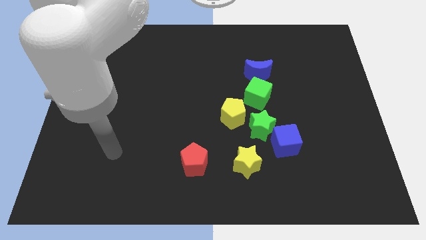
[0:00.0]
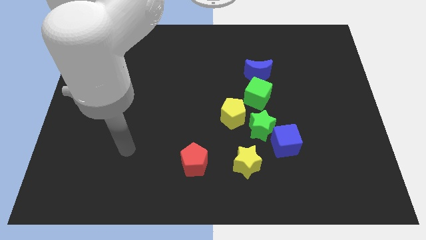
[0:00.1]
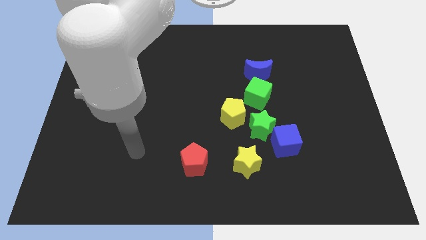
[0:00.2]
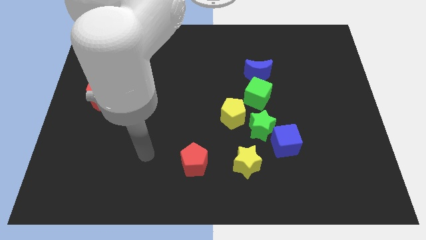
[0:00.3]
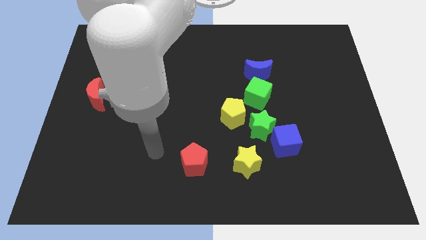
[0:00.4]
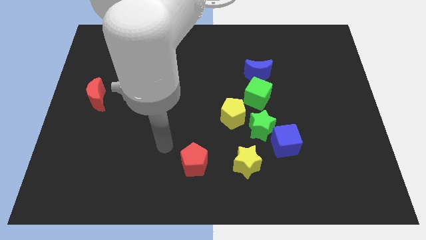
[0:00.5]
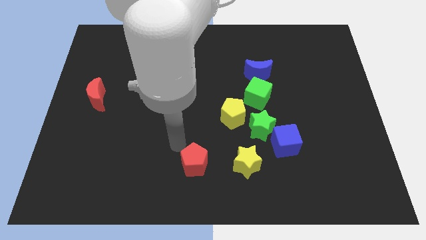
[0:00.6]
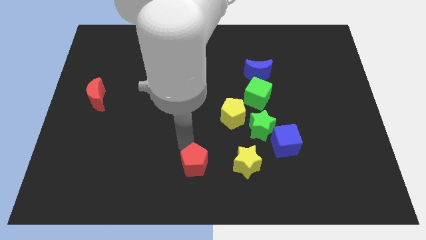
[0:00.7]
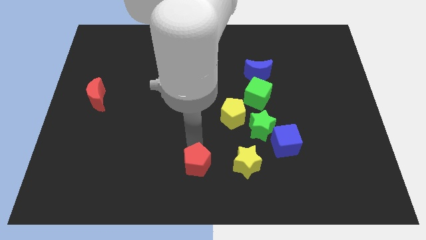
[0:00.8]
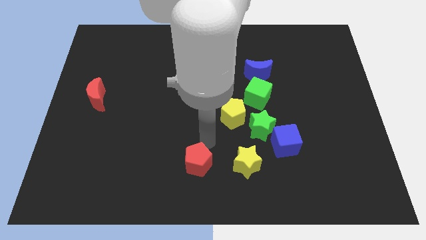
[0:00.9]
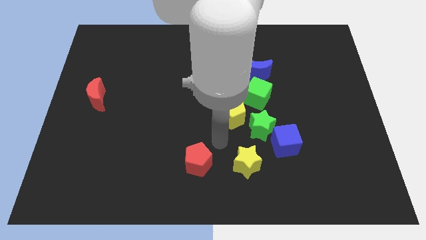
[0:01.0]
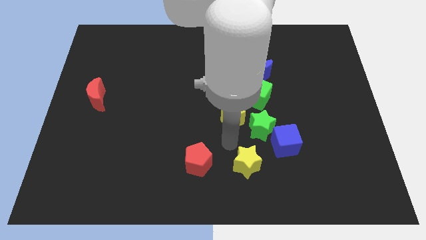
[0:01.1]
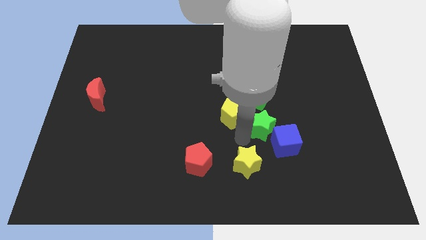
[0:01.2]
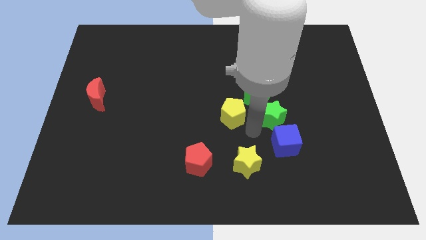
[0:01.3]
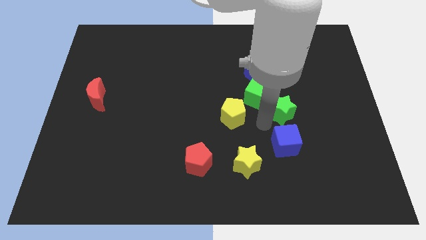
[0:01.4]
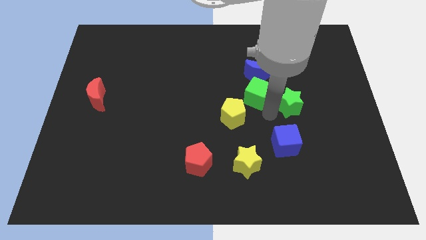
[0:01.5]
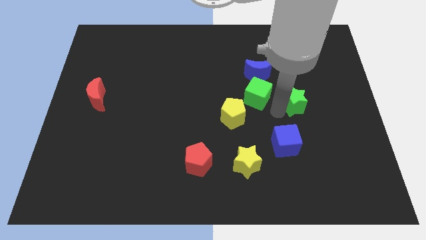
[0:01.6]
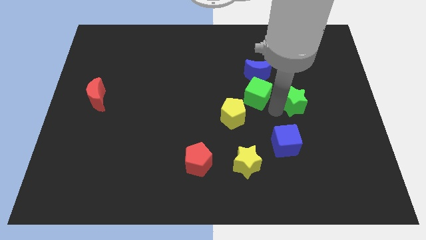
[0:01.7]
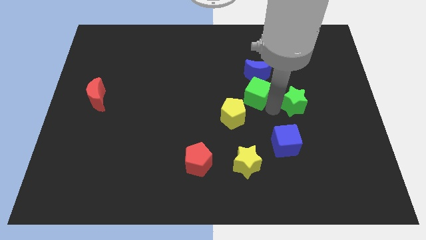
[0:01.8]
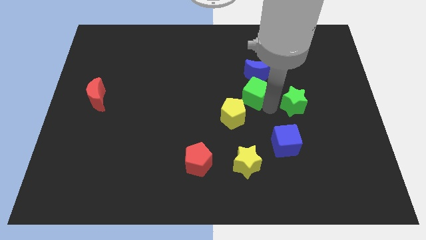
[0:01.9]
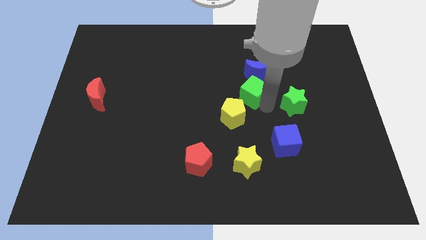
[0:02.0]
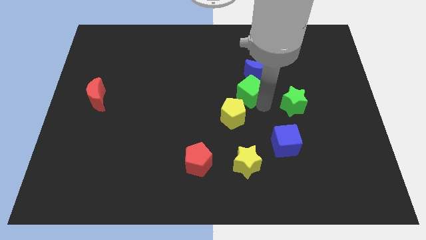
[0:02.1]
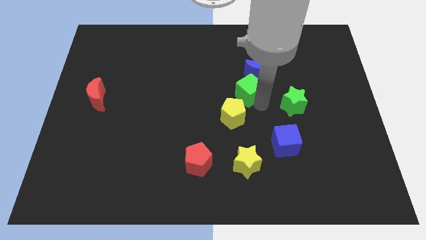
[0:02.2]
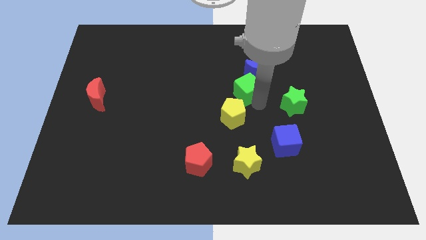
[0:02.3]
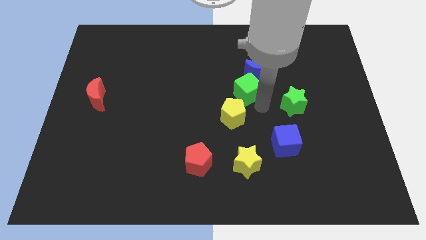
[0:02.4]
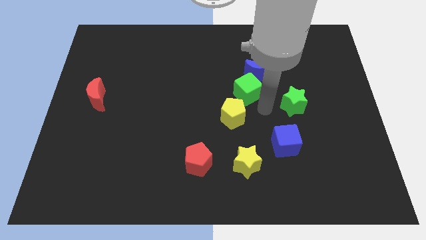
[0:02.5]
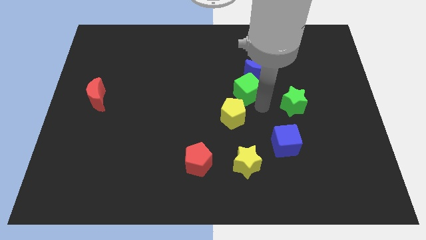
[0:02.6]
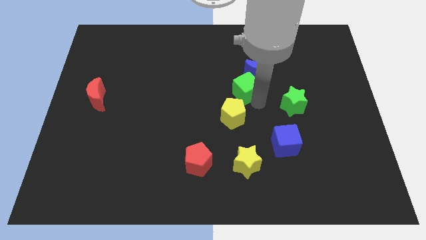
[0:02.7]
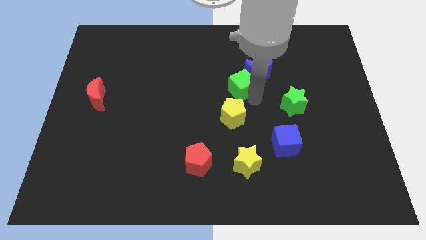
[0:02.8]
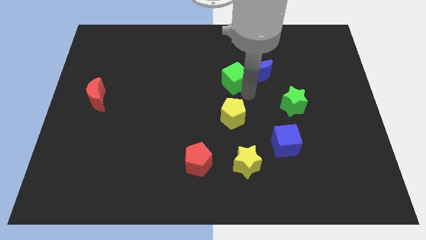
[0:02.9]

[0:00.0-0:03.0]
slightly push the green cube upwards and then to the left

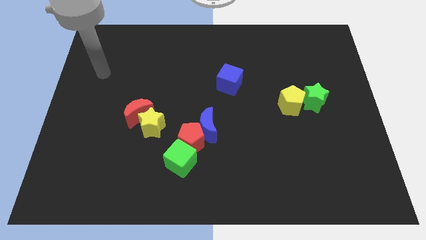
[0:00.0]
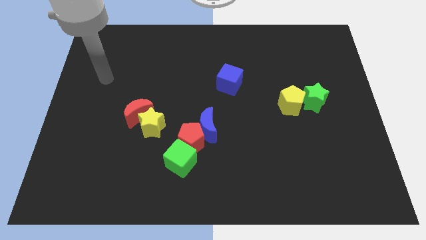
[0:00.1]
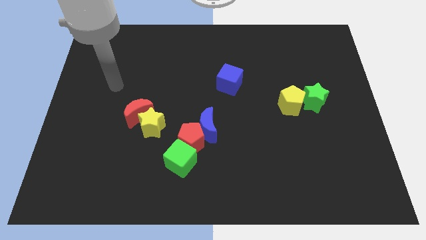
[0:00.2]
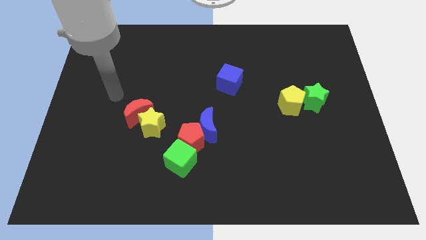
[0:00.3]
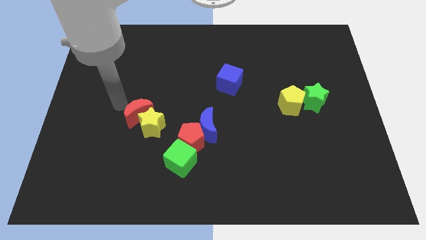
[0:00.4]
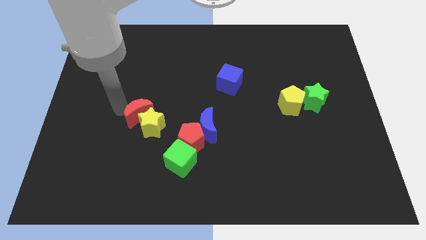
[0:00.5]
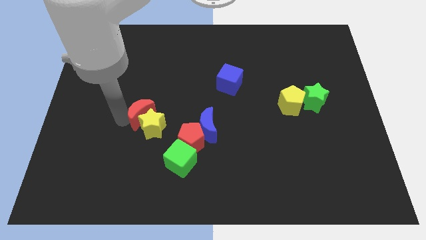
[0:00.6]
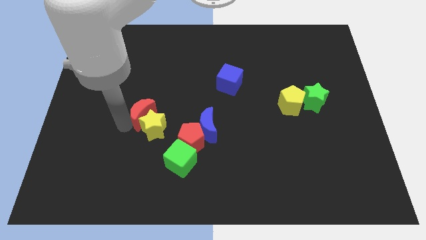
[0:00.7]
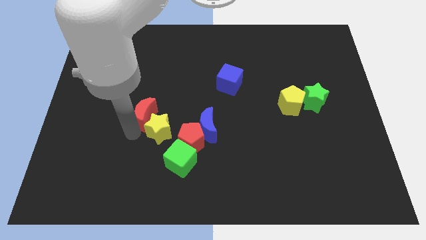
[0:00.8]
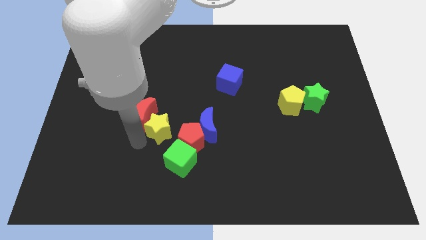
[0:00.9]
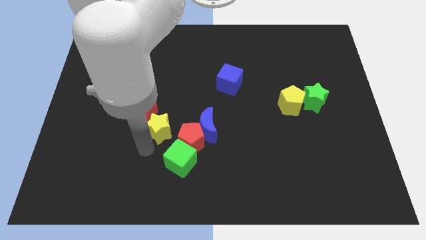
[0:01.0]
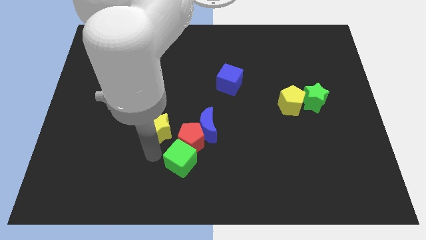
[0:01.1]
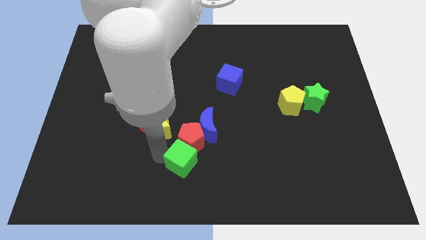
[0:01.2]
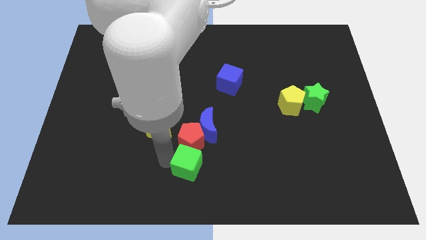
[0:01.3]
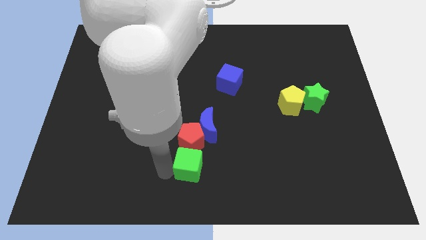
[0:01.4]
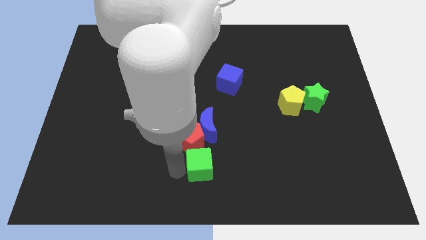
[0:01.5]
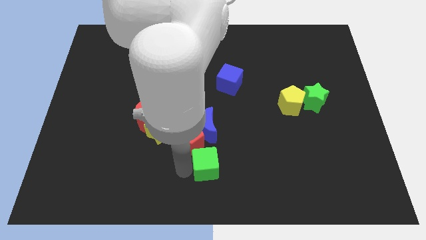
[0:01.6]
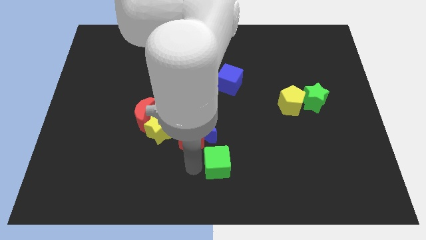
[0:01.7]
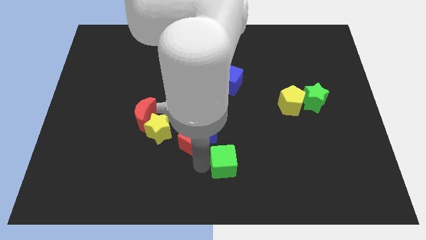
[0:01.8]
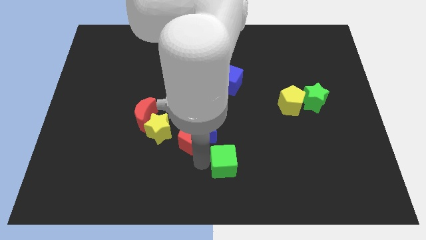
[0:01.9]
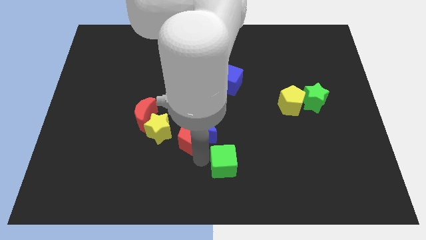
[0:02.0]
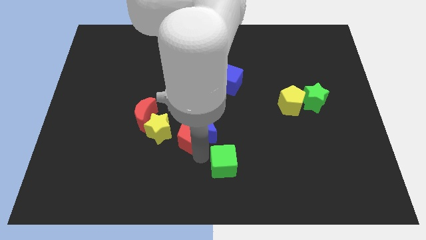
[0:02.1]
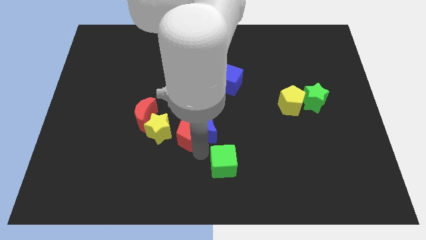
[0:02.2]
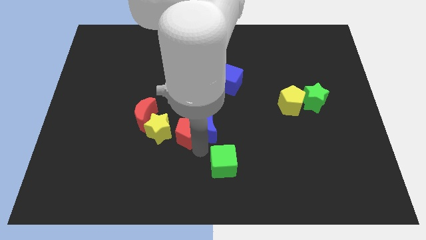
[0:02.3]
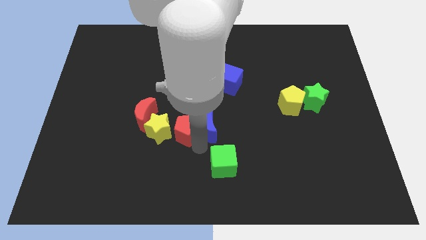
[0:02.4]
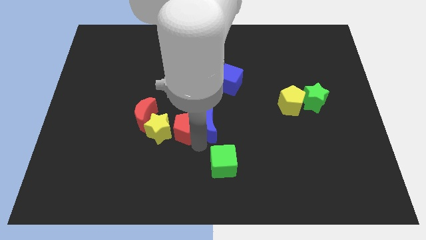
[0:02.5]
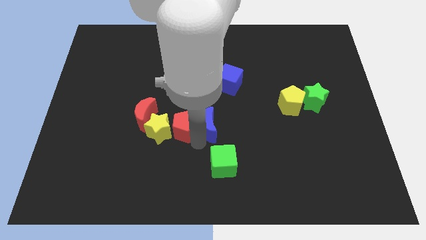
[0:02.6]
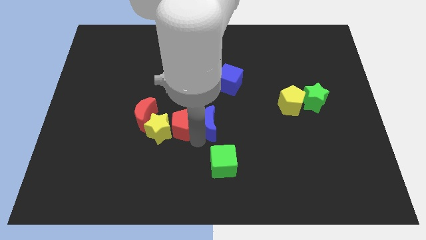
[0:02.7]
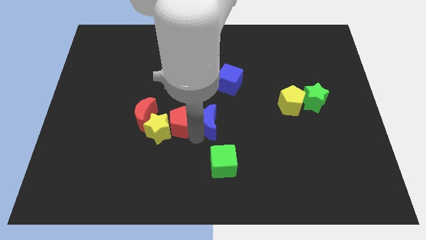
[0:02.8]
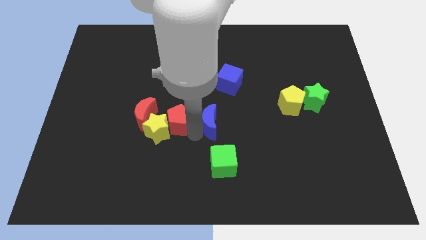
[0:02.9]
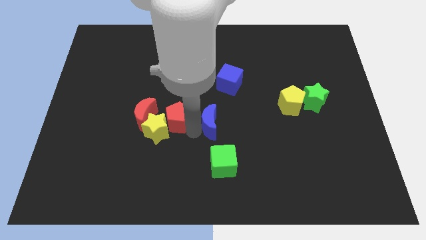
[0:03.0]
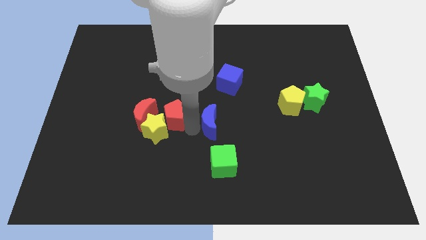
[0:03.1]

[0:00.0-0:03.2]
slide the red pentagon up and to the left slightly

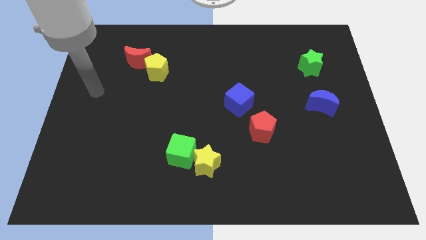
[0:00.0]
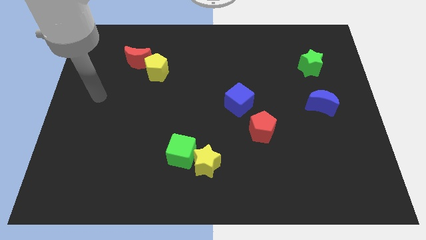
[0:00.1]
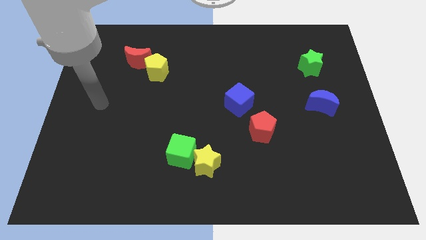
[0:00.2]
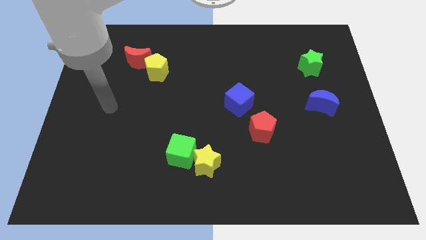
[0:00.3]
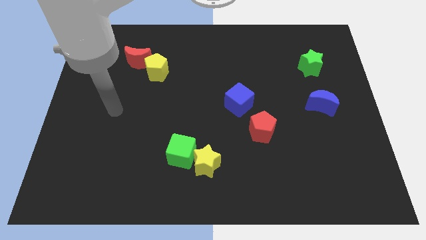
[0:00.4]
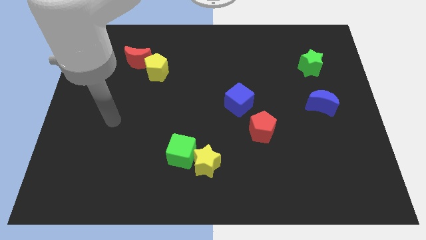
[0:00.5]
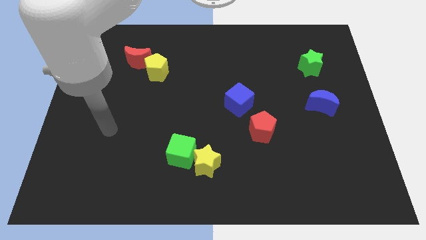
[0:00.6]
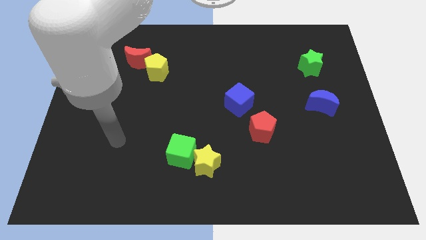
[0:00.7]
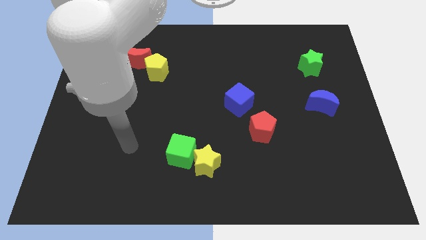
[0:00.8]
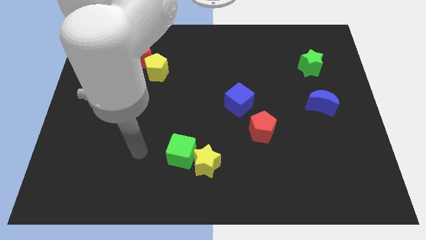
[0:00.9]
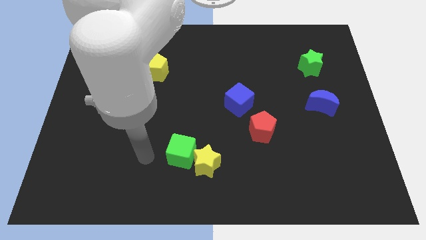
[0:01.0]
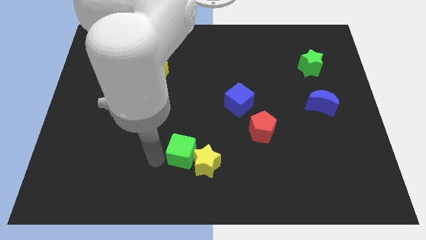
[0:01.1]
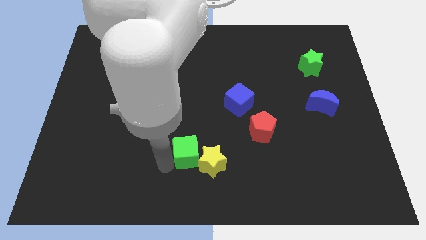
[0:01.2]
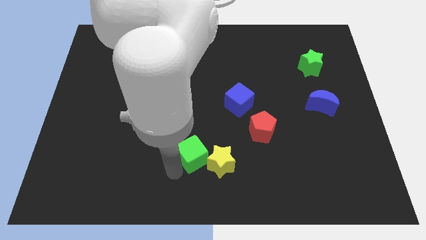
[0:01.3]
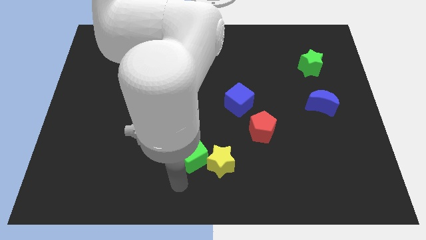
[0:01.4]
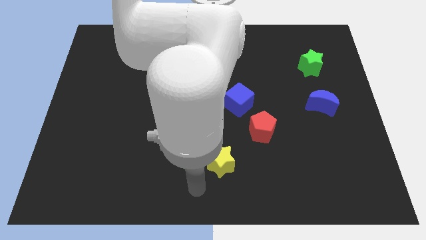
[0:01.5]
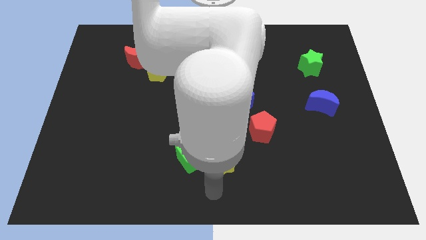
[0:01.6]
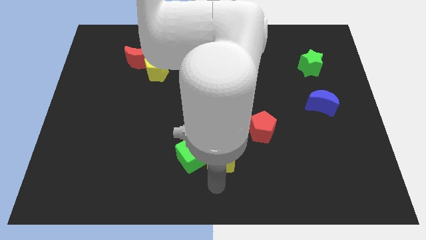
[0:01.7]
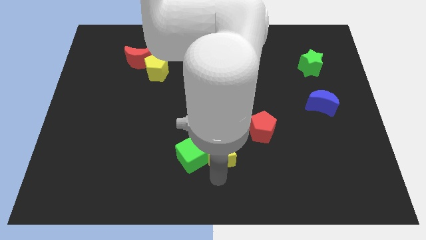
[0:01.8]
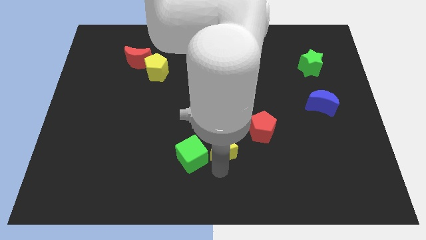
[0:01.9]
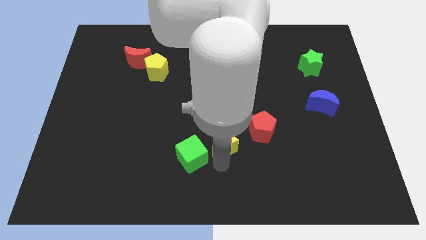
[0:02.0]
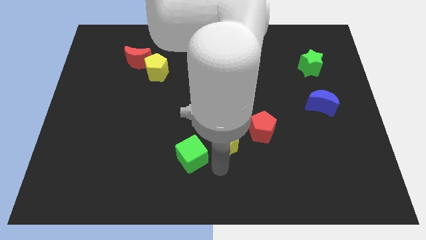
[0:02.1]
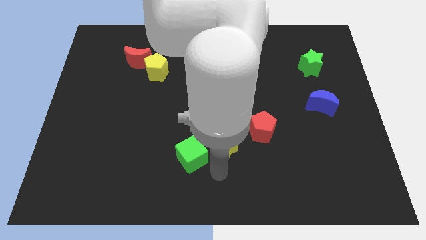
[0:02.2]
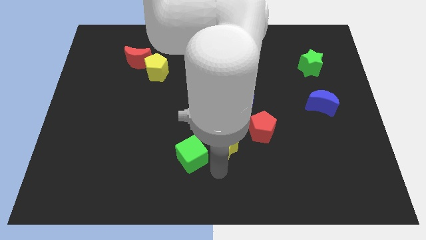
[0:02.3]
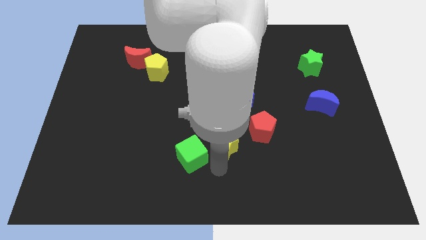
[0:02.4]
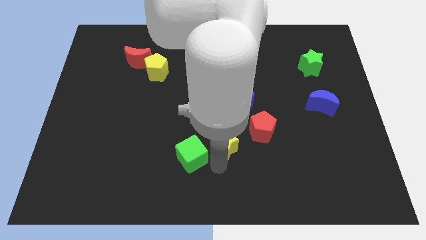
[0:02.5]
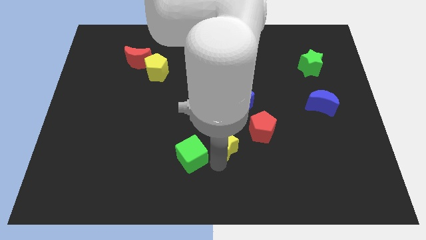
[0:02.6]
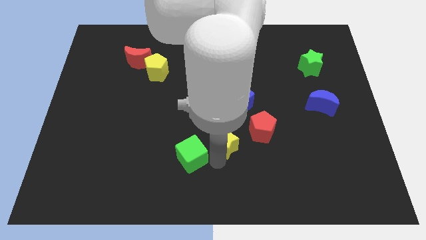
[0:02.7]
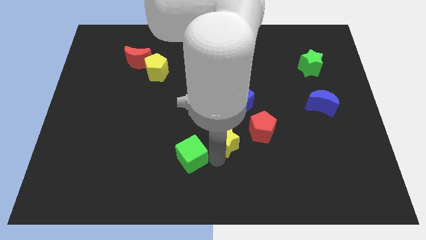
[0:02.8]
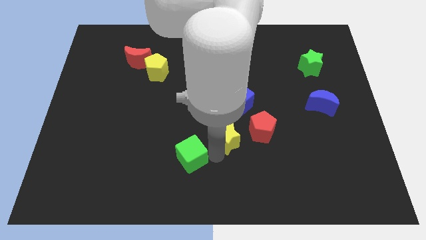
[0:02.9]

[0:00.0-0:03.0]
slightly slide the yellow star up and right diagonally
